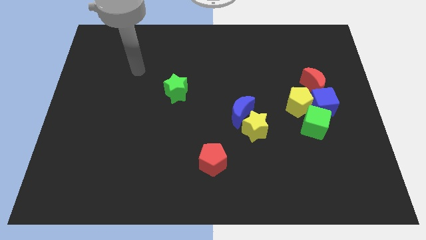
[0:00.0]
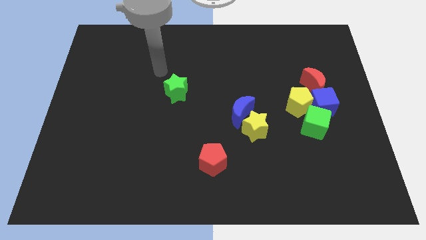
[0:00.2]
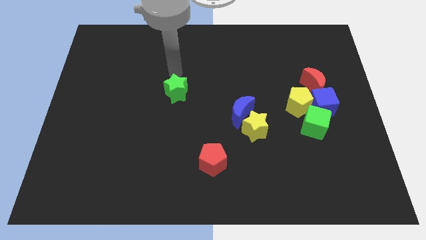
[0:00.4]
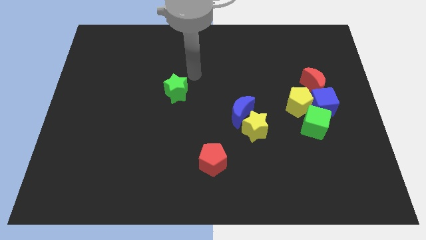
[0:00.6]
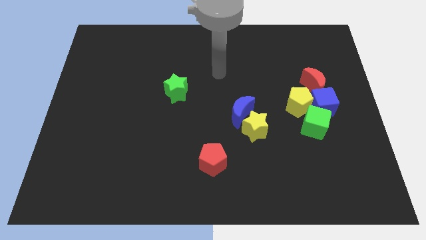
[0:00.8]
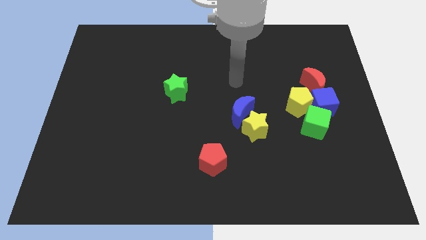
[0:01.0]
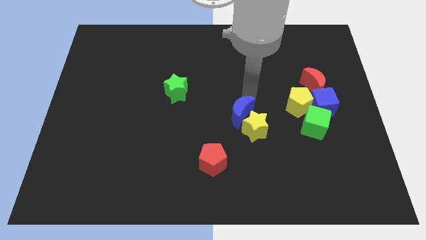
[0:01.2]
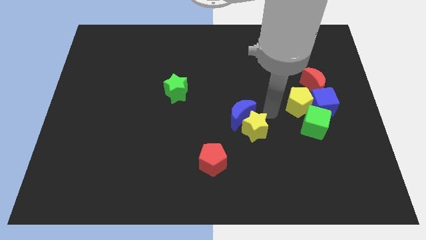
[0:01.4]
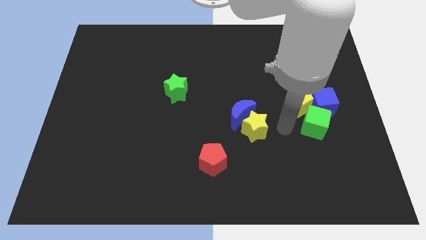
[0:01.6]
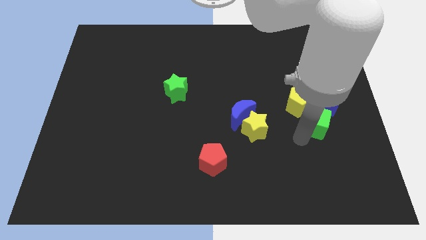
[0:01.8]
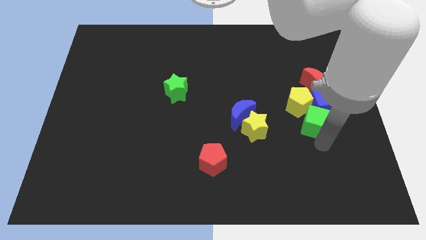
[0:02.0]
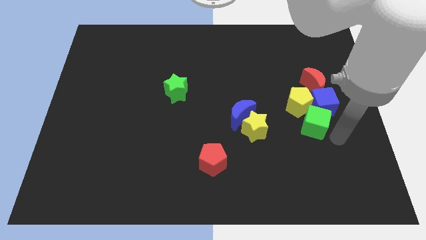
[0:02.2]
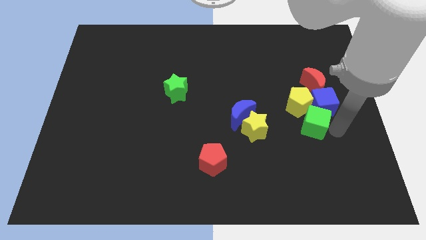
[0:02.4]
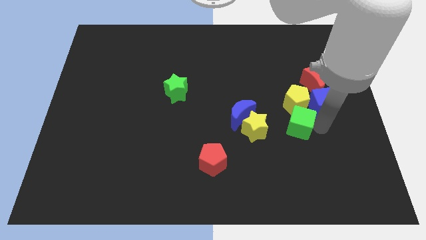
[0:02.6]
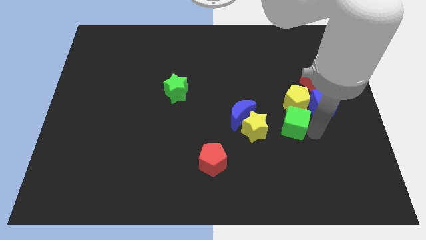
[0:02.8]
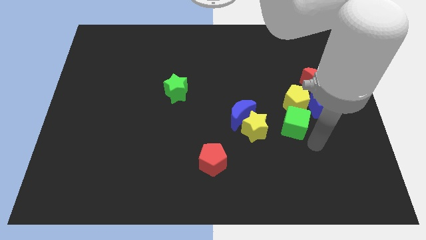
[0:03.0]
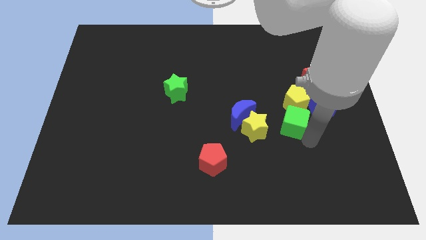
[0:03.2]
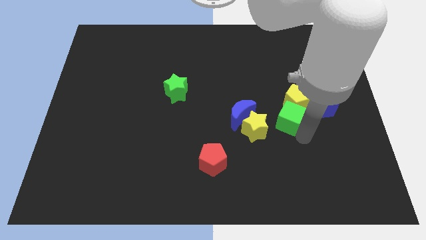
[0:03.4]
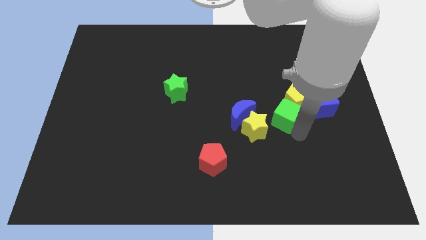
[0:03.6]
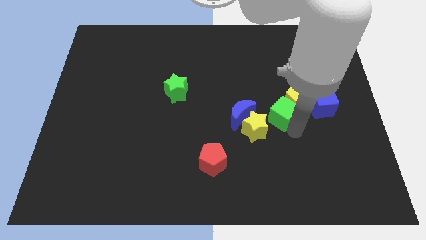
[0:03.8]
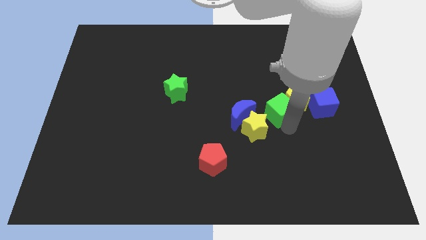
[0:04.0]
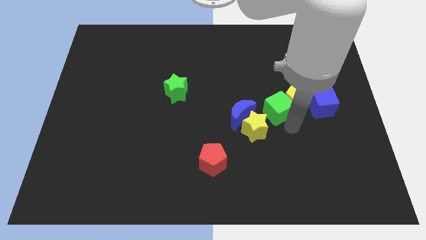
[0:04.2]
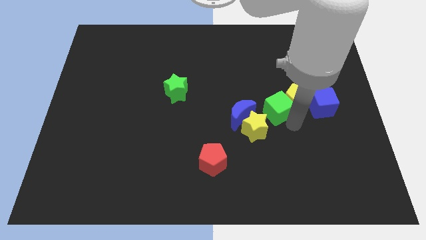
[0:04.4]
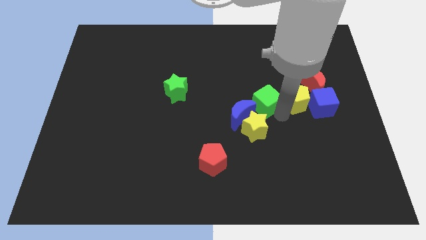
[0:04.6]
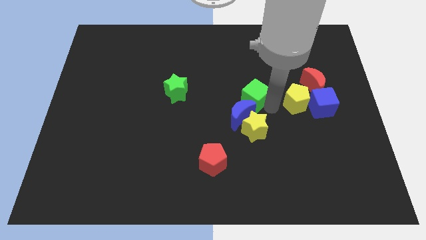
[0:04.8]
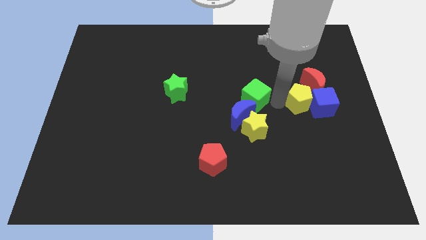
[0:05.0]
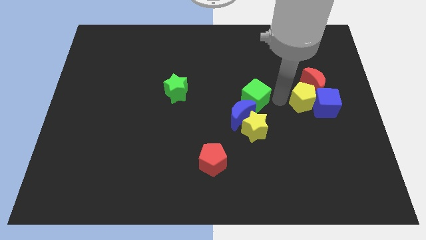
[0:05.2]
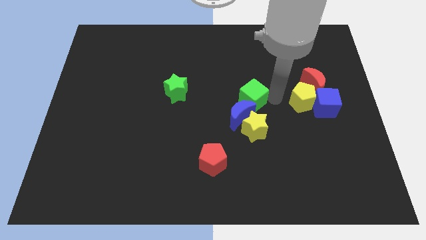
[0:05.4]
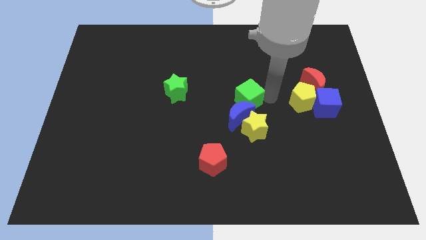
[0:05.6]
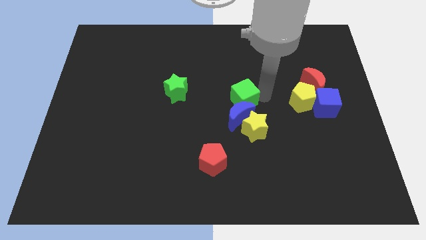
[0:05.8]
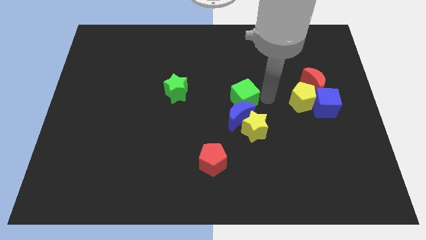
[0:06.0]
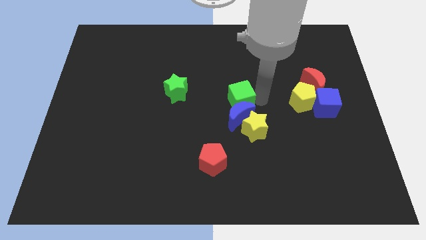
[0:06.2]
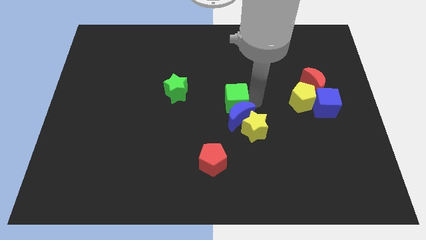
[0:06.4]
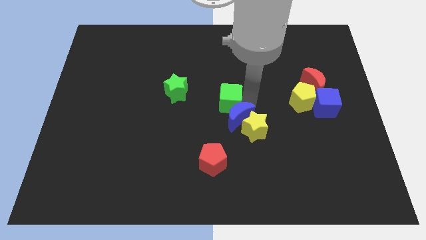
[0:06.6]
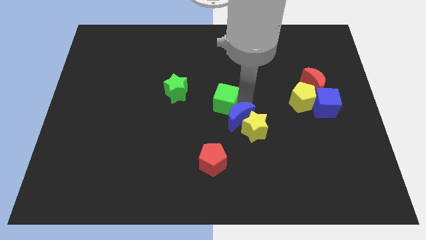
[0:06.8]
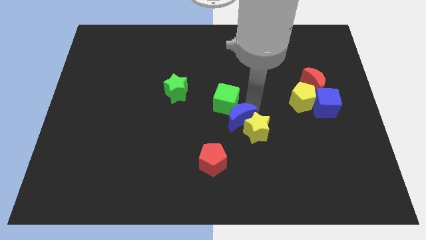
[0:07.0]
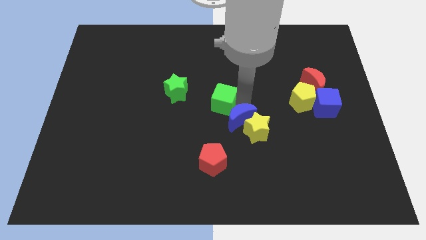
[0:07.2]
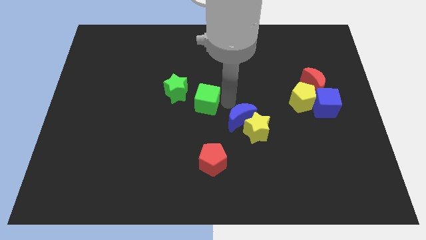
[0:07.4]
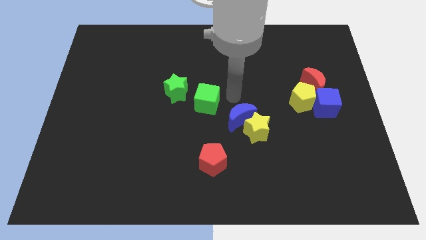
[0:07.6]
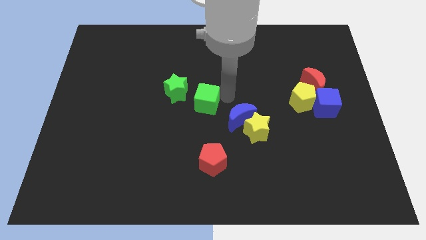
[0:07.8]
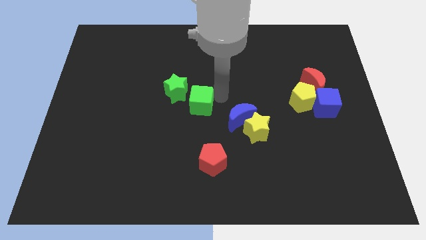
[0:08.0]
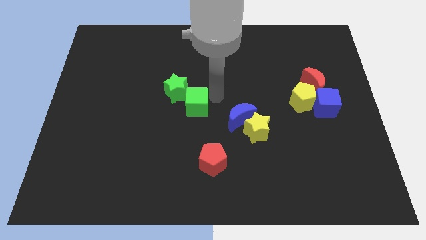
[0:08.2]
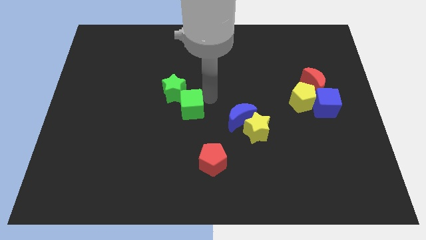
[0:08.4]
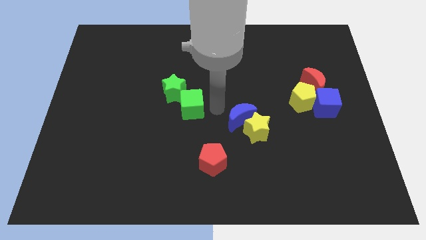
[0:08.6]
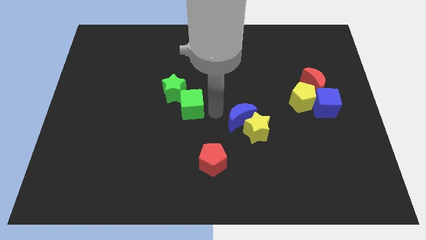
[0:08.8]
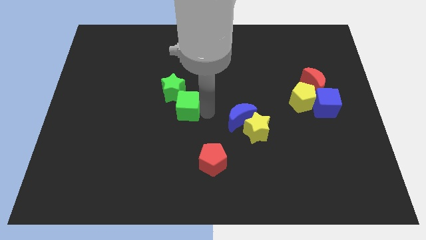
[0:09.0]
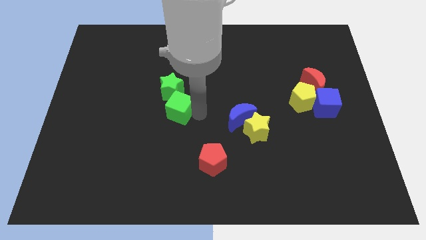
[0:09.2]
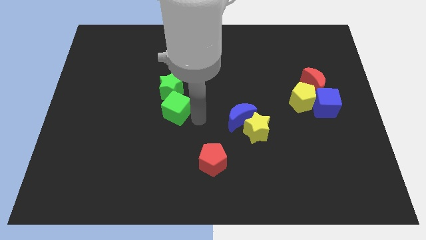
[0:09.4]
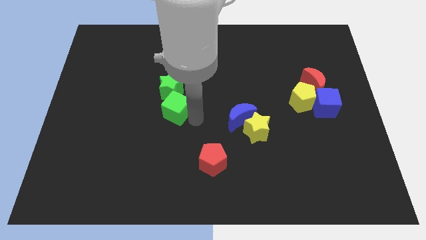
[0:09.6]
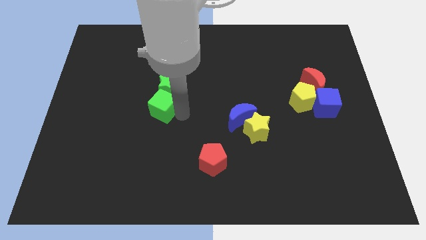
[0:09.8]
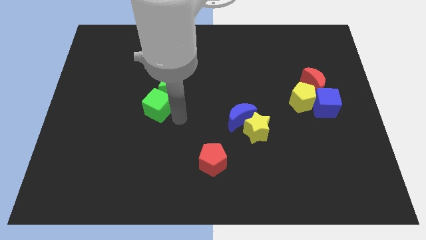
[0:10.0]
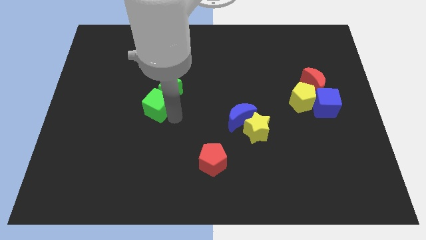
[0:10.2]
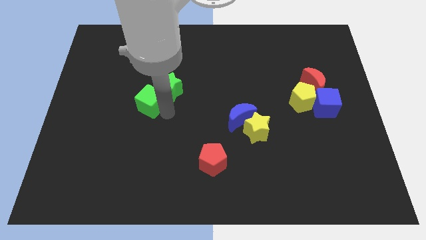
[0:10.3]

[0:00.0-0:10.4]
push the green cube to the left side of the green star

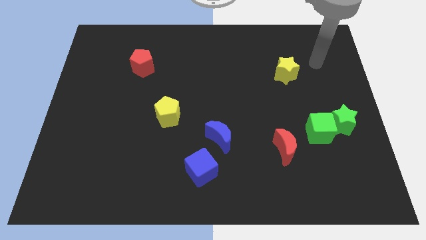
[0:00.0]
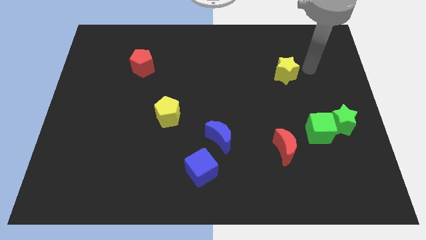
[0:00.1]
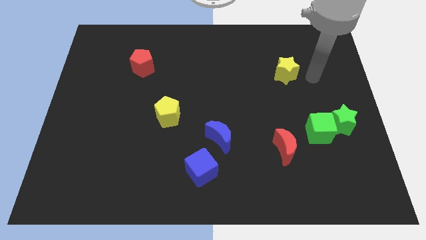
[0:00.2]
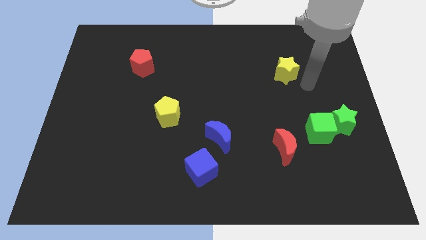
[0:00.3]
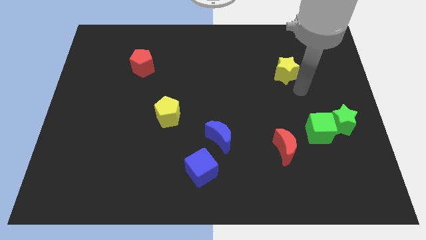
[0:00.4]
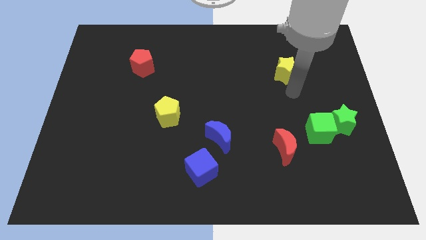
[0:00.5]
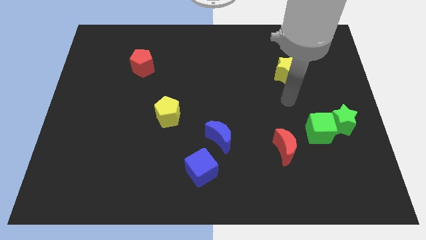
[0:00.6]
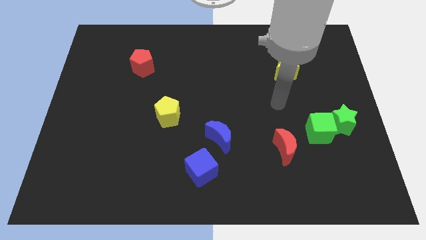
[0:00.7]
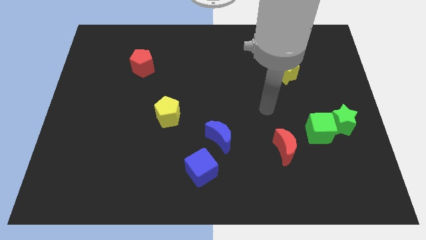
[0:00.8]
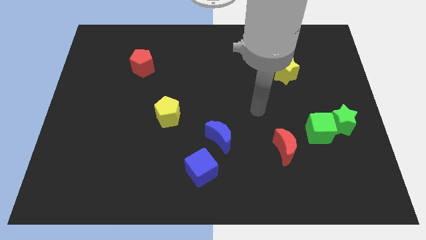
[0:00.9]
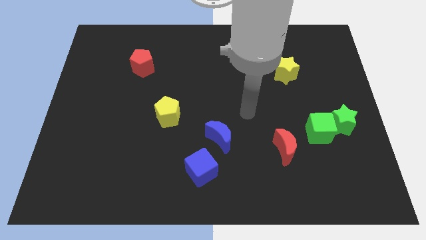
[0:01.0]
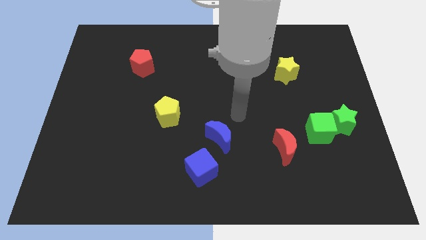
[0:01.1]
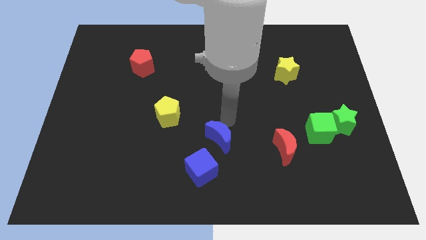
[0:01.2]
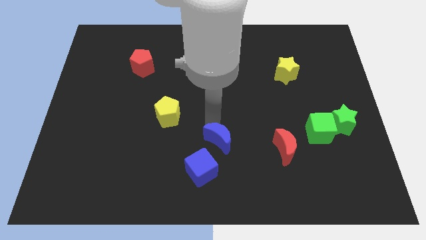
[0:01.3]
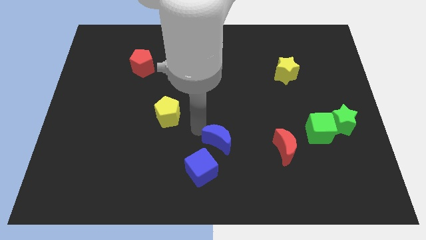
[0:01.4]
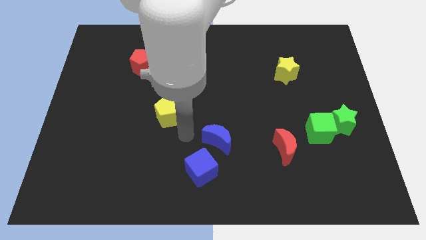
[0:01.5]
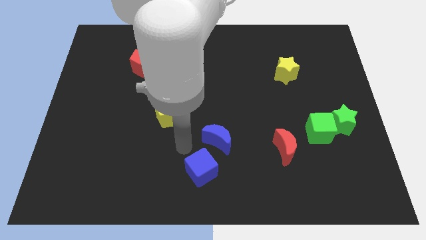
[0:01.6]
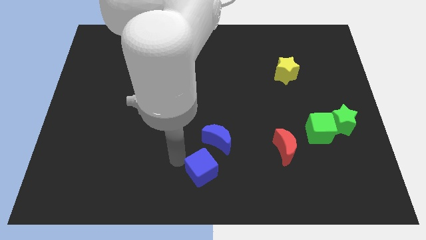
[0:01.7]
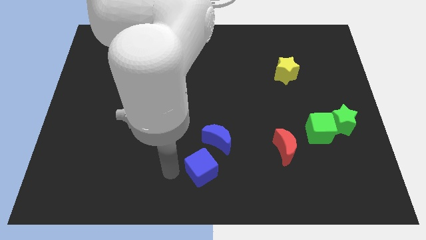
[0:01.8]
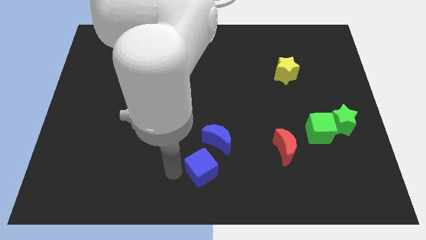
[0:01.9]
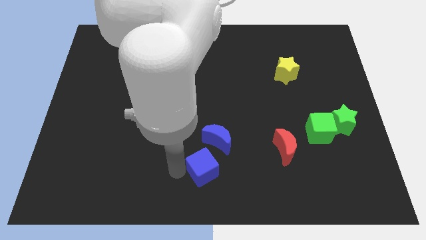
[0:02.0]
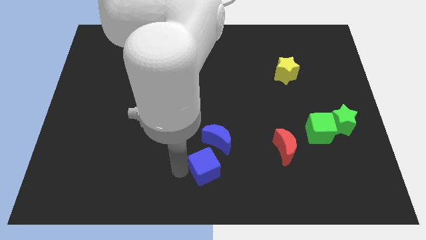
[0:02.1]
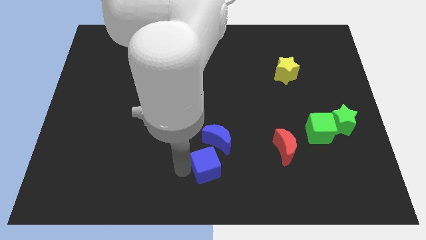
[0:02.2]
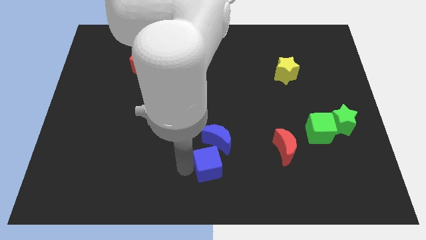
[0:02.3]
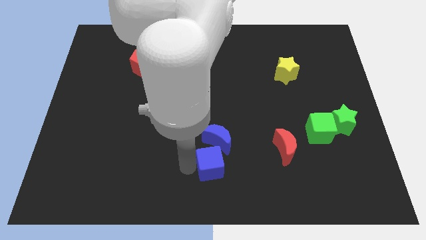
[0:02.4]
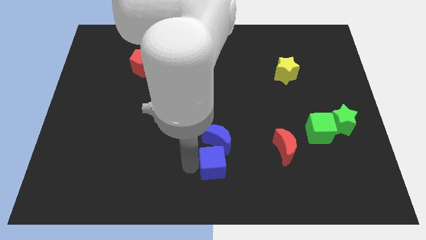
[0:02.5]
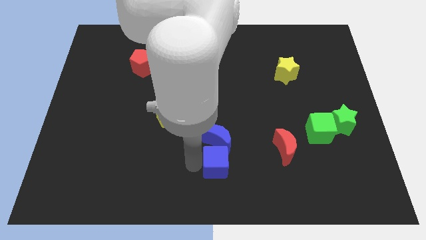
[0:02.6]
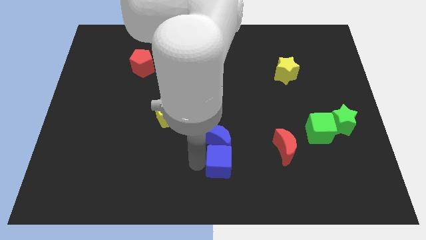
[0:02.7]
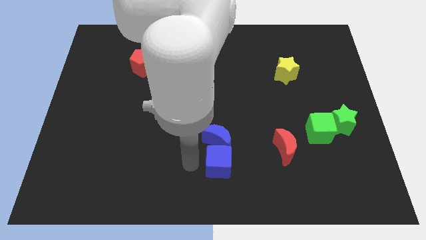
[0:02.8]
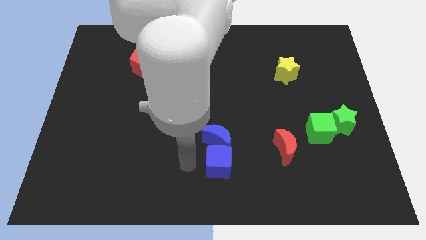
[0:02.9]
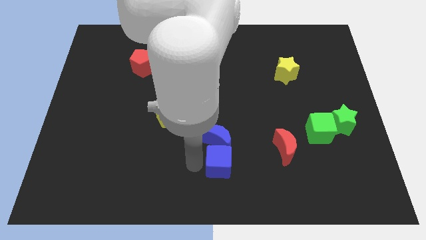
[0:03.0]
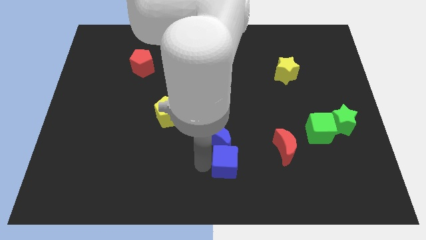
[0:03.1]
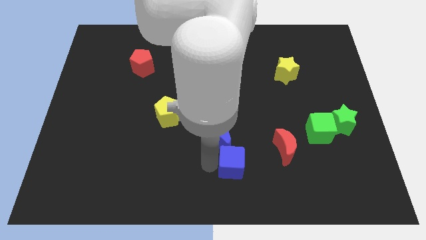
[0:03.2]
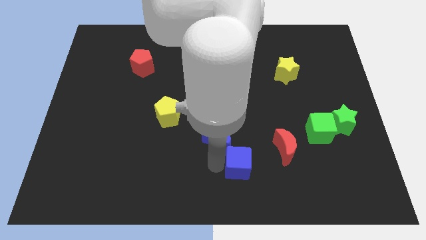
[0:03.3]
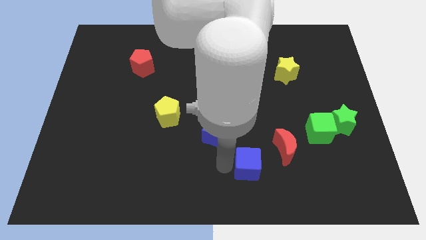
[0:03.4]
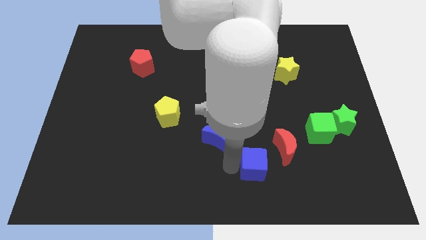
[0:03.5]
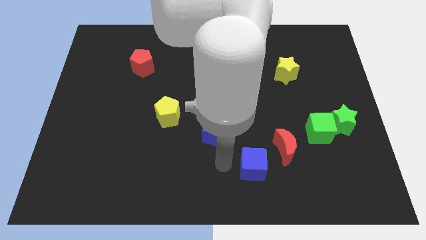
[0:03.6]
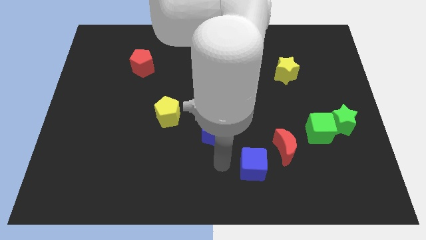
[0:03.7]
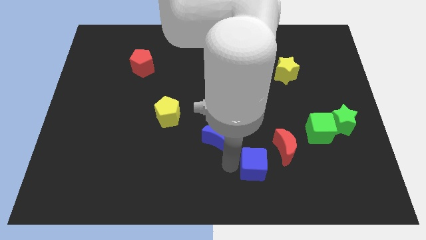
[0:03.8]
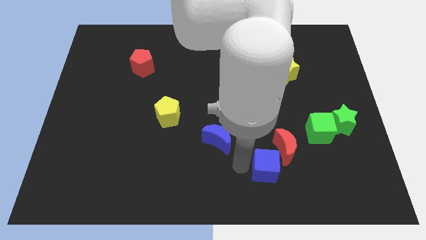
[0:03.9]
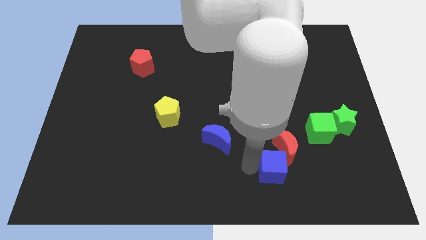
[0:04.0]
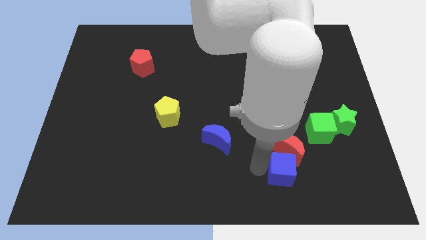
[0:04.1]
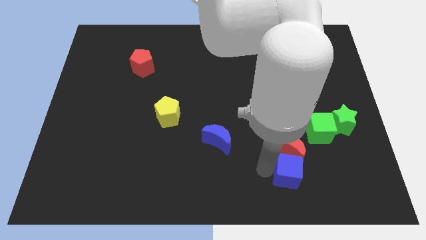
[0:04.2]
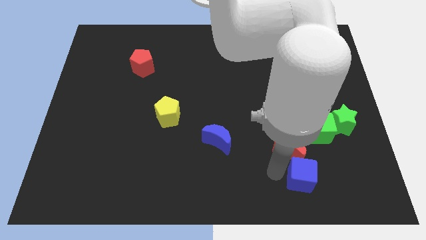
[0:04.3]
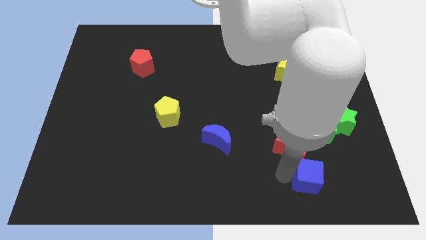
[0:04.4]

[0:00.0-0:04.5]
put the blue cube below the green cube
